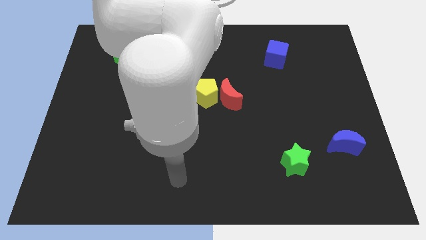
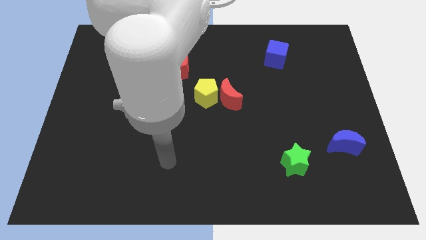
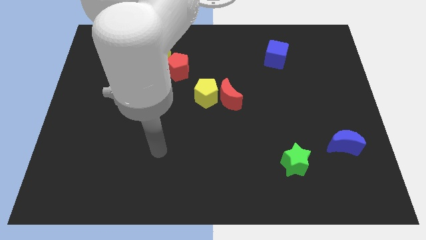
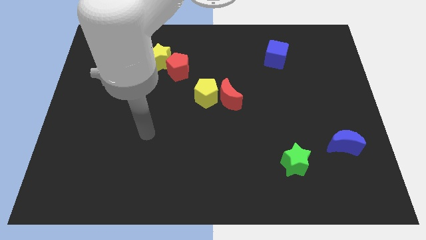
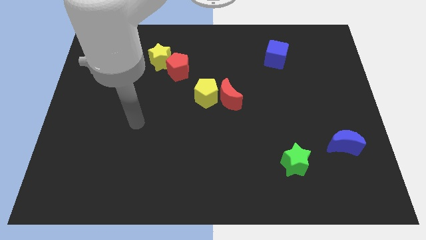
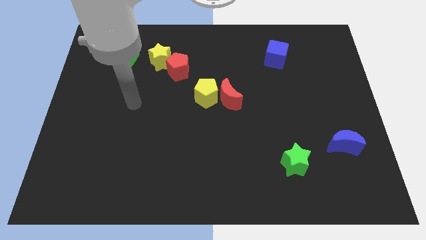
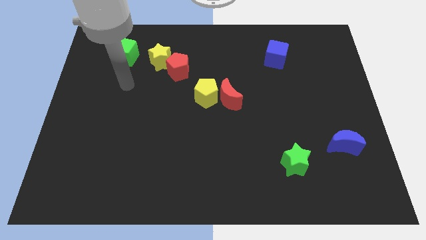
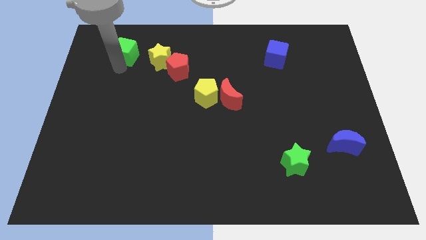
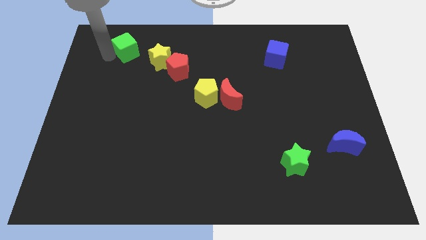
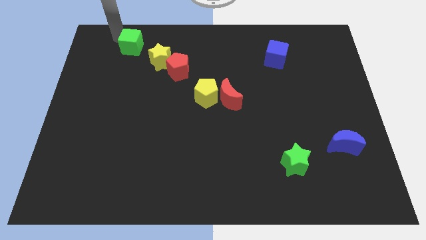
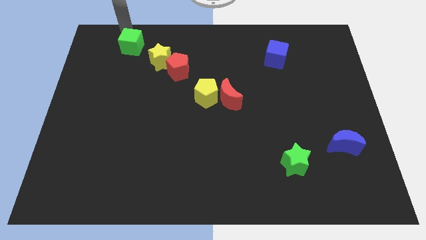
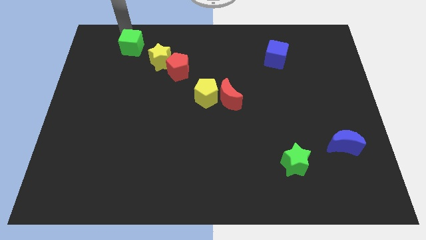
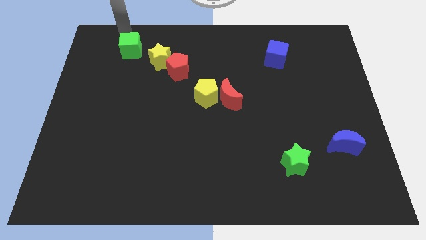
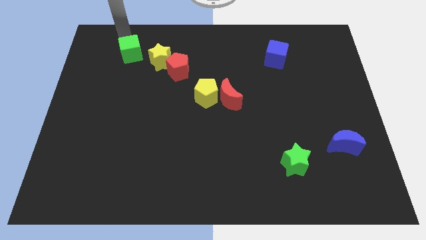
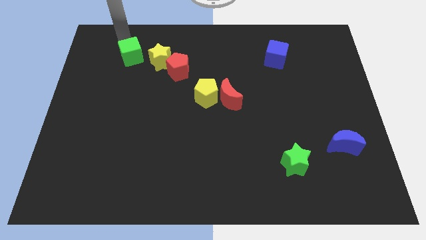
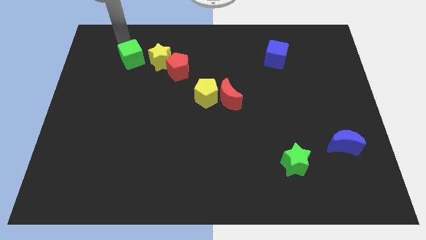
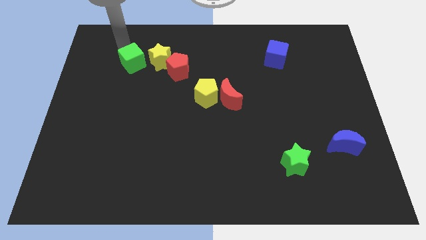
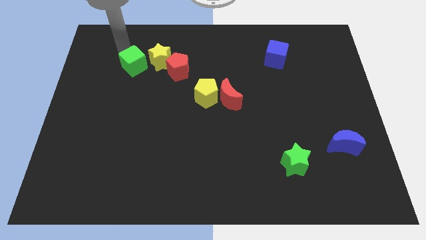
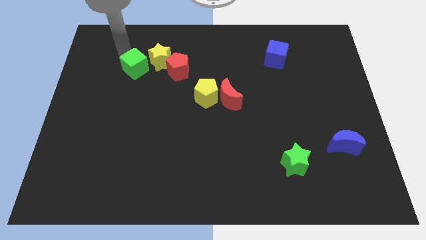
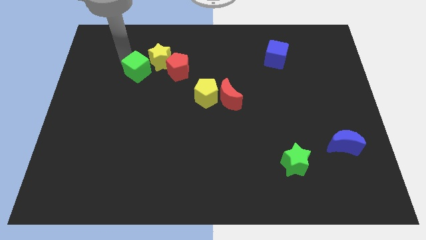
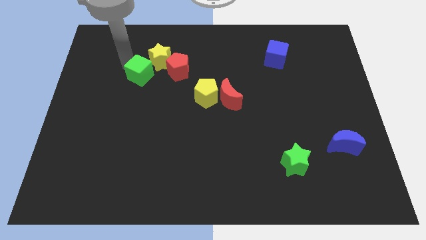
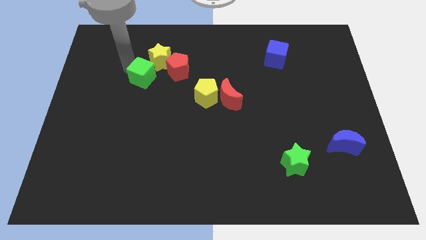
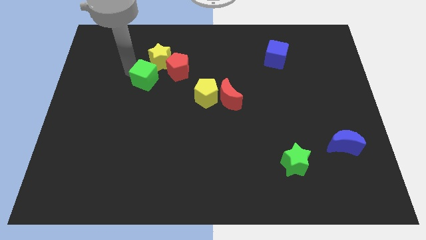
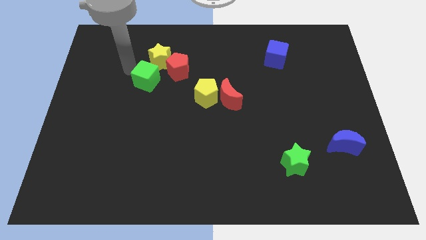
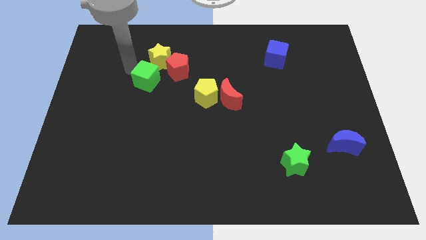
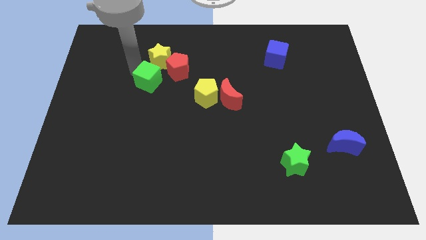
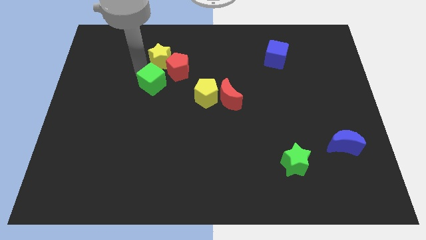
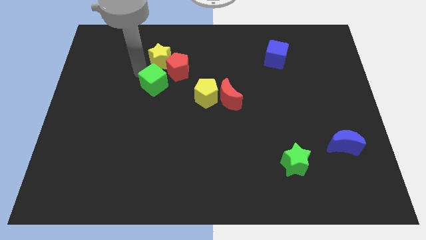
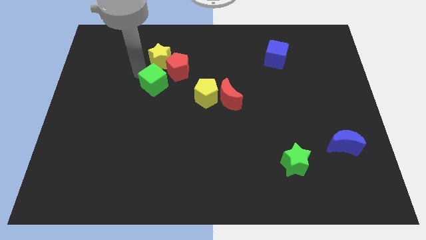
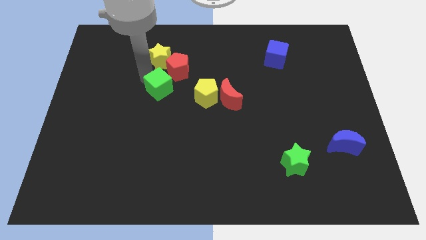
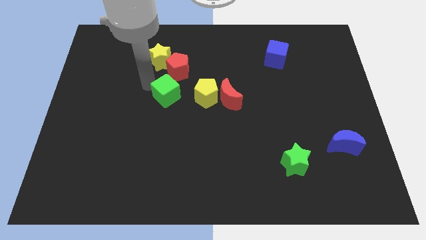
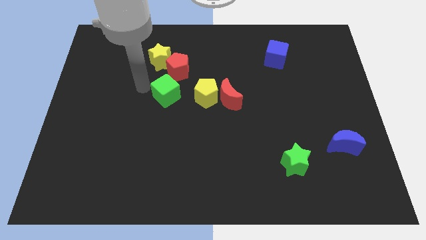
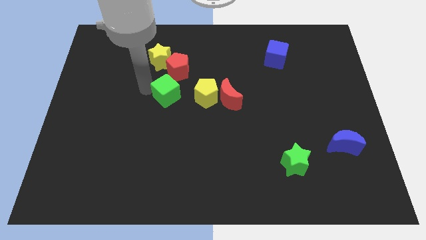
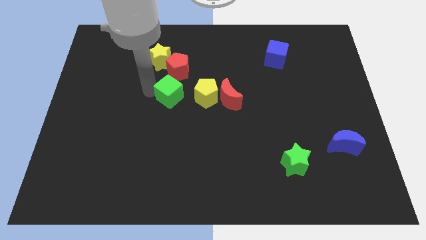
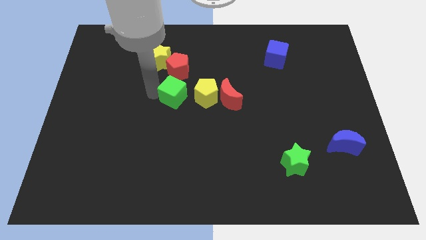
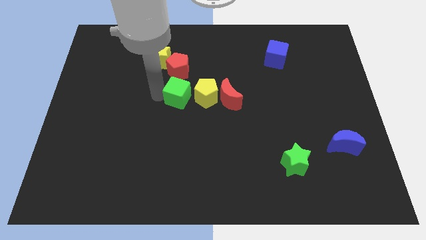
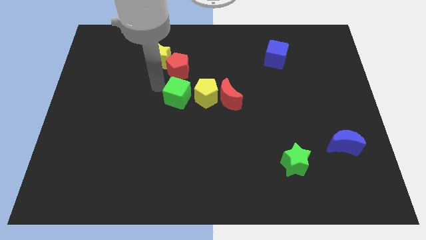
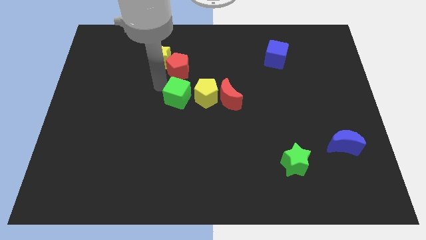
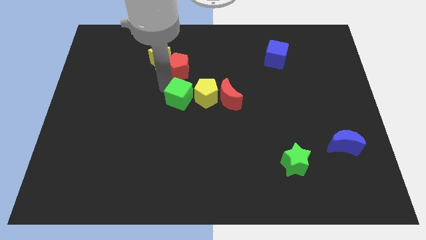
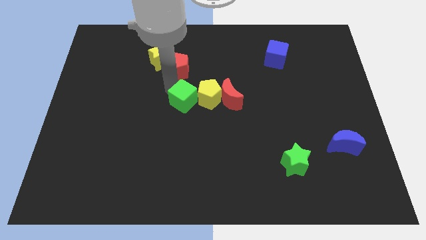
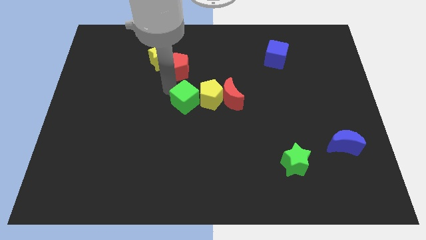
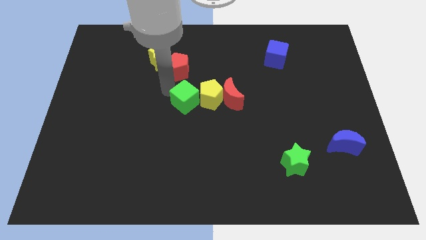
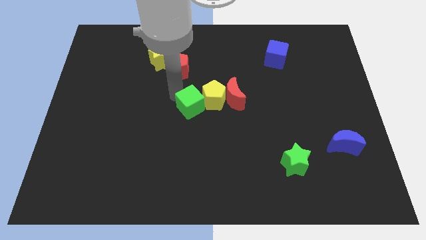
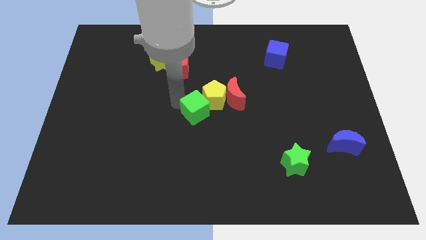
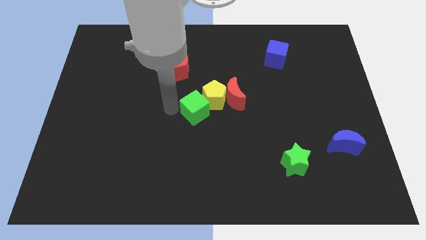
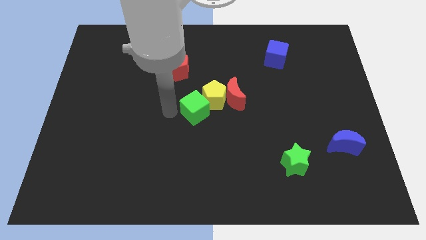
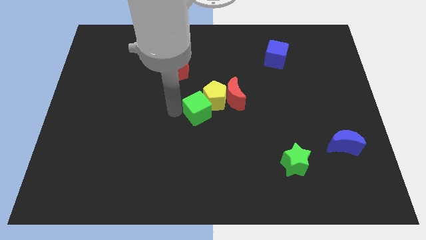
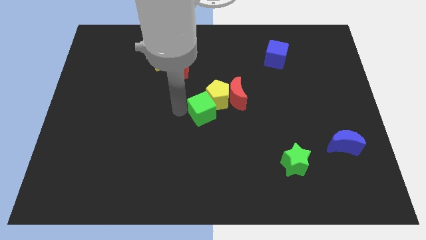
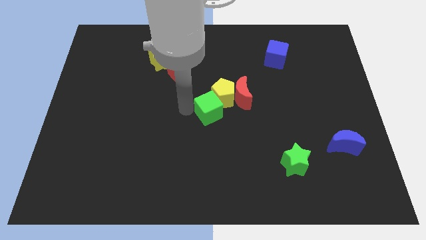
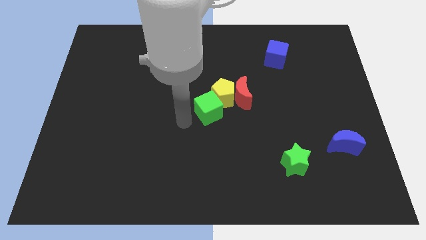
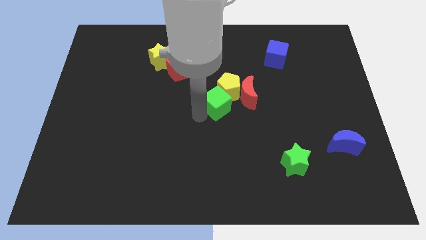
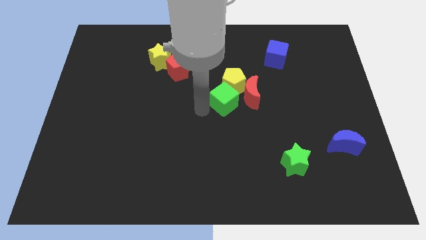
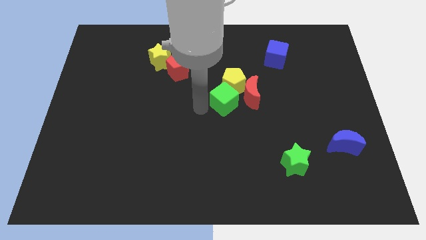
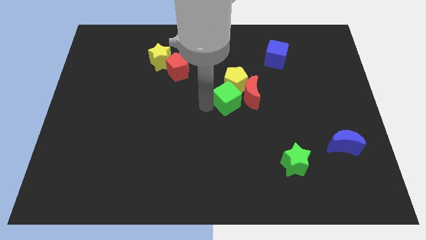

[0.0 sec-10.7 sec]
move the green cube to the red moon

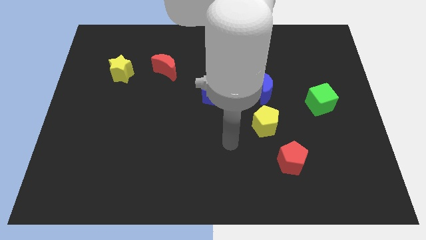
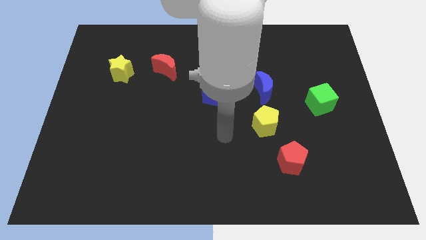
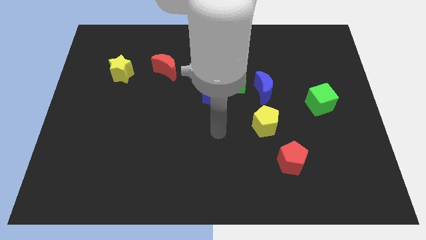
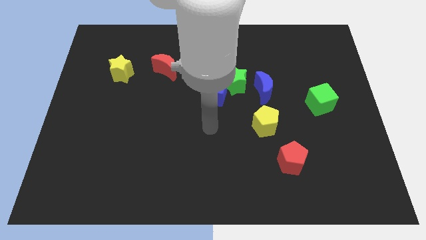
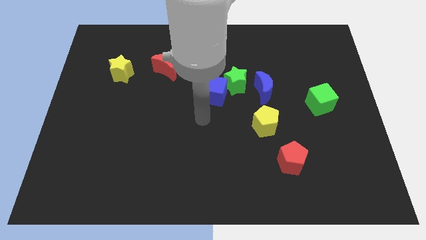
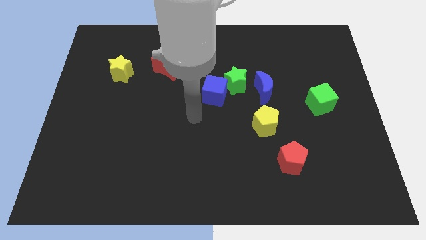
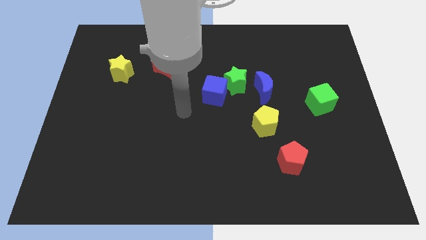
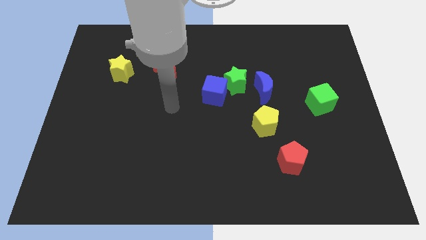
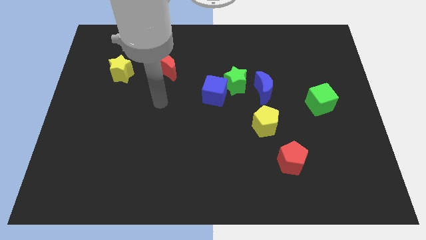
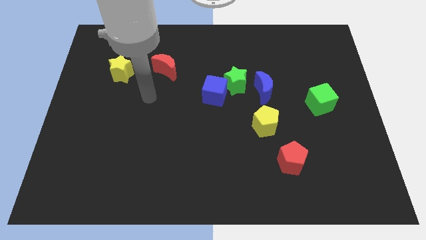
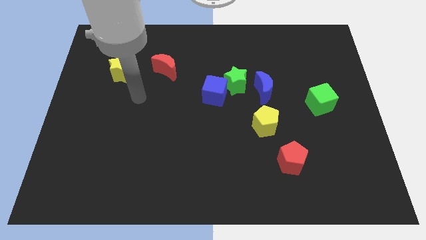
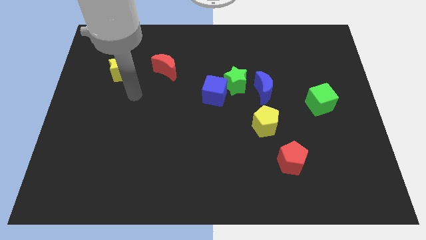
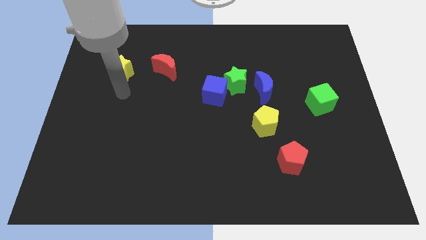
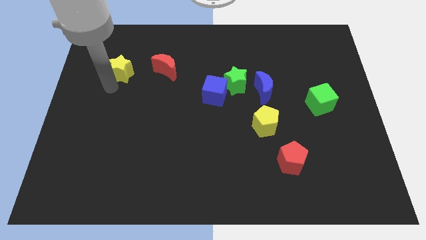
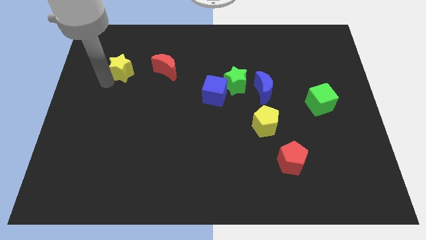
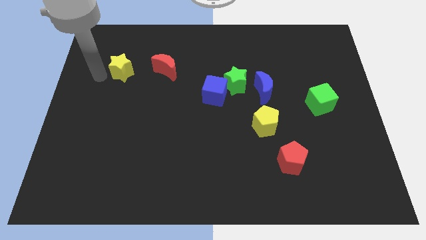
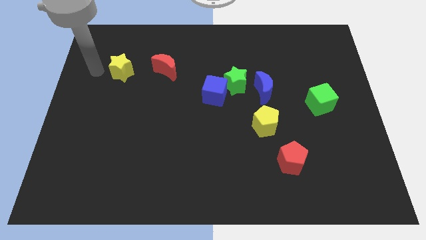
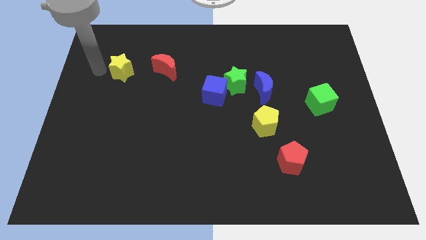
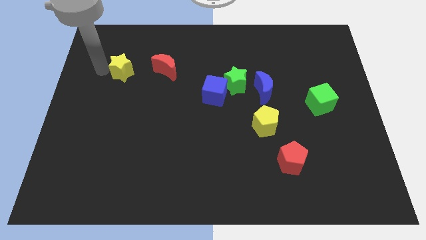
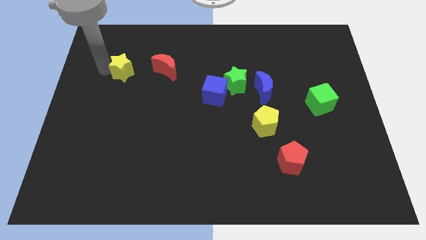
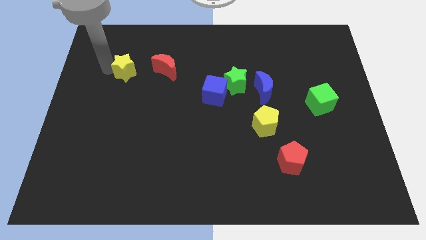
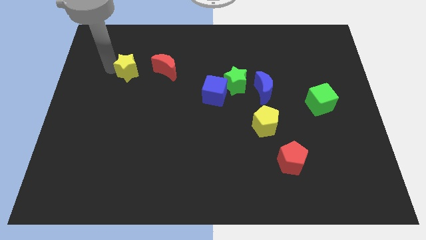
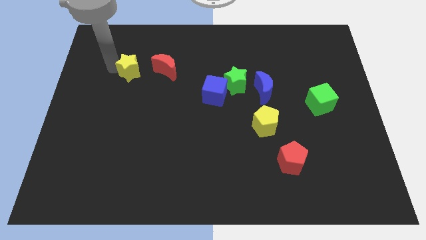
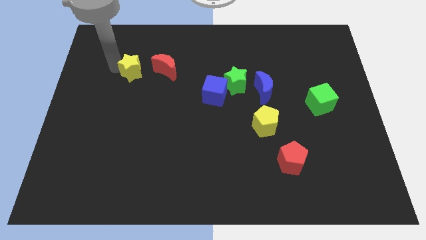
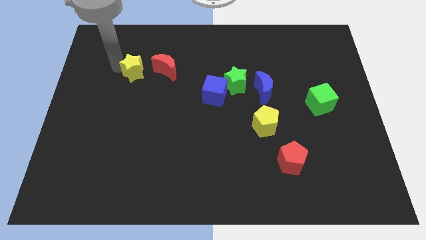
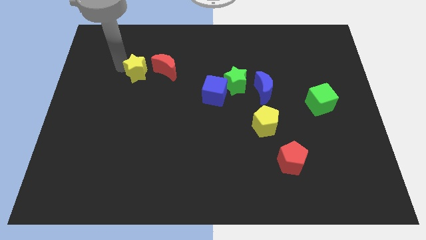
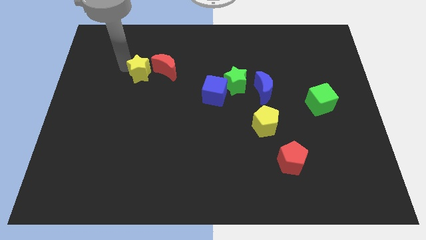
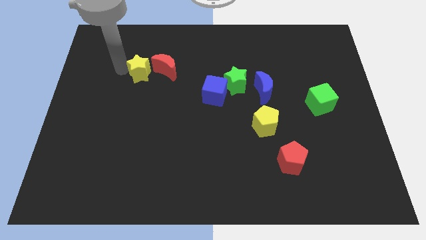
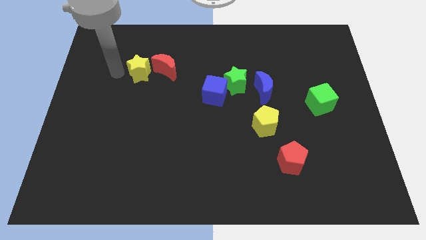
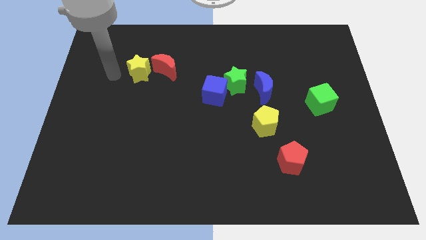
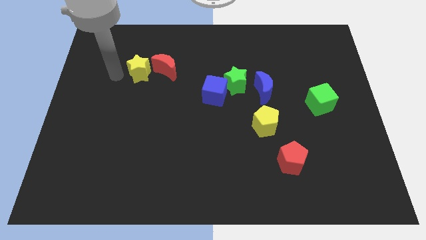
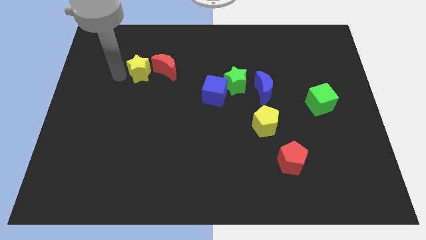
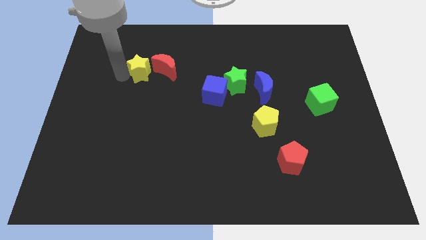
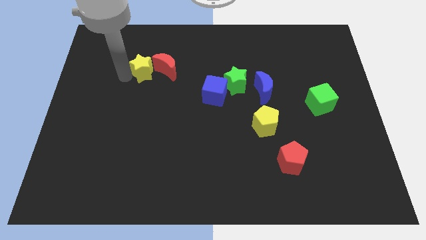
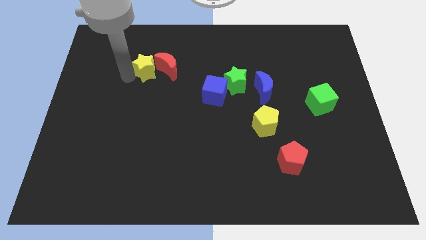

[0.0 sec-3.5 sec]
push the yellow star close to the red moon
